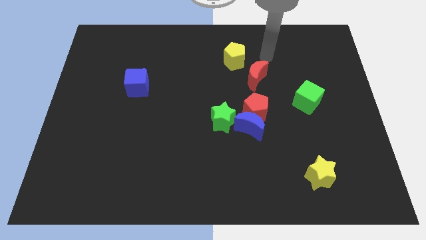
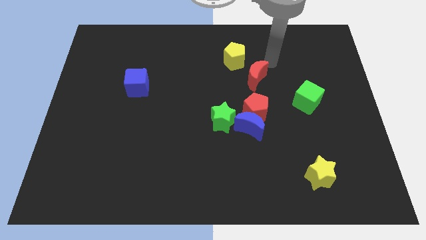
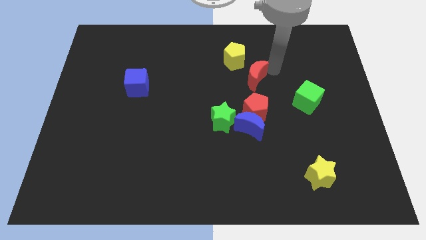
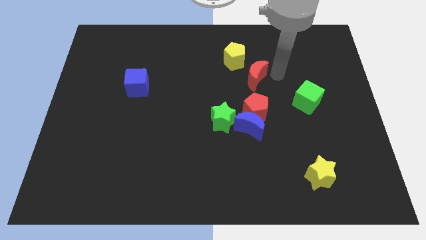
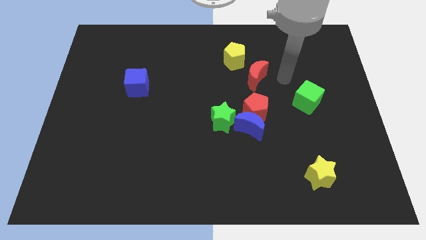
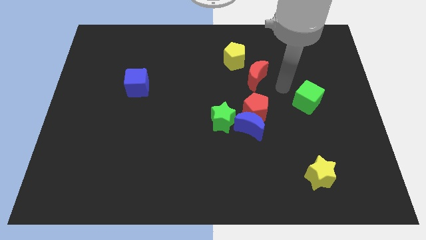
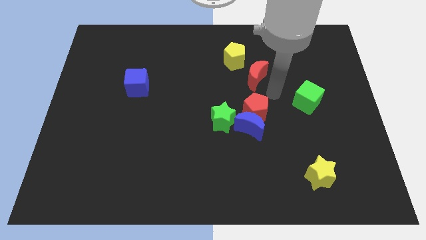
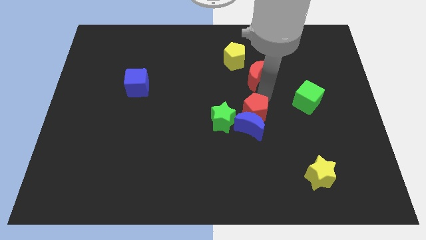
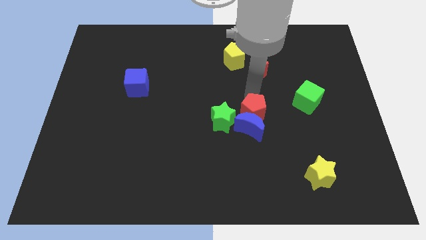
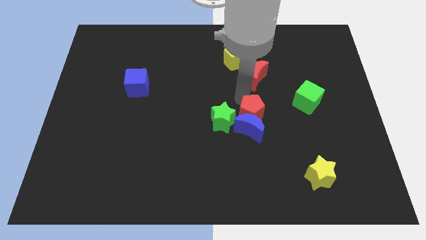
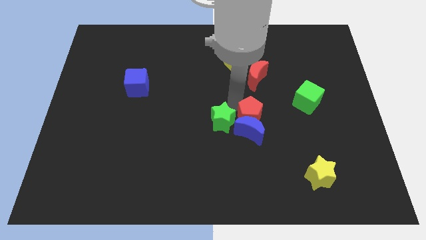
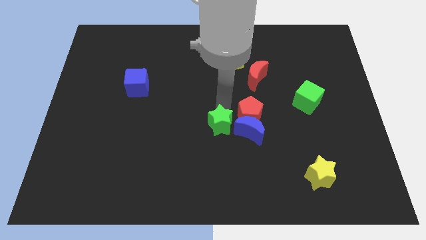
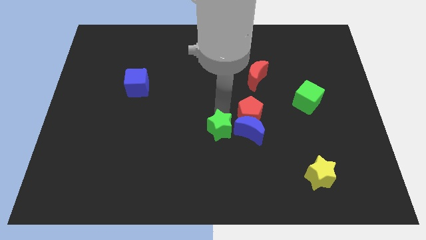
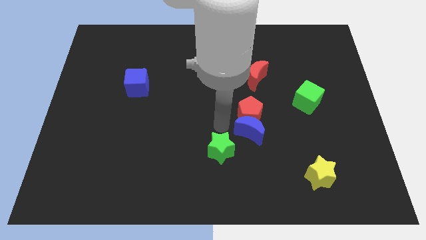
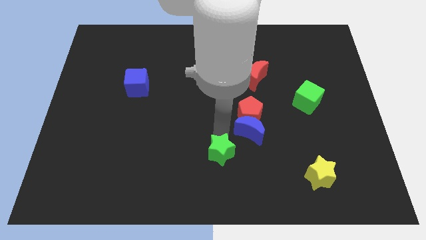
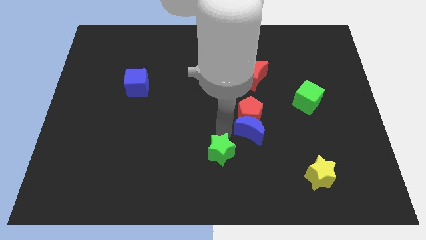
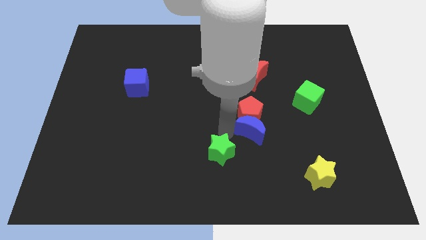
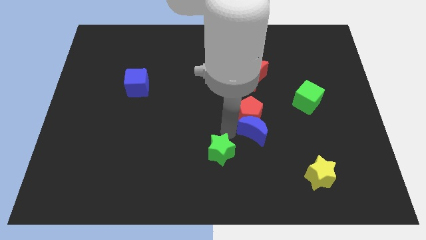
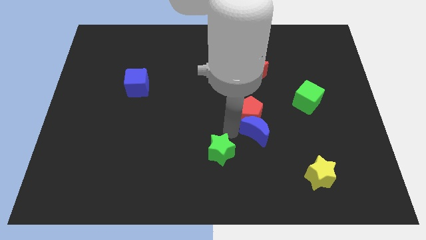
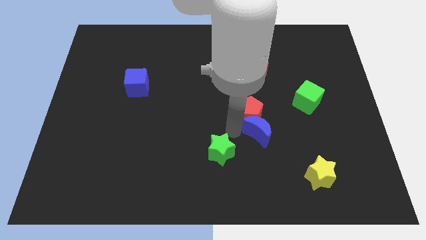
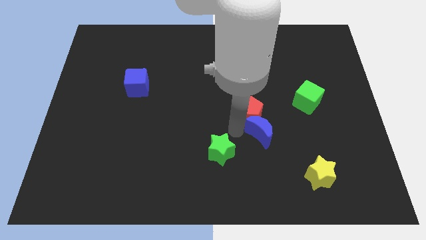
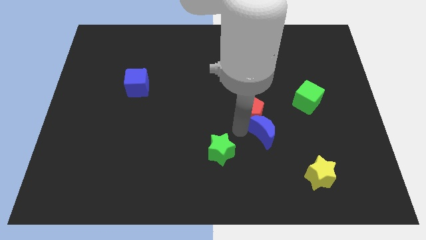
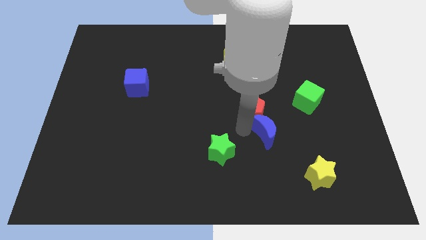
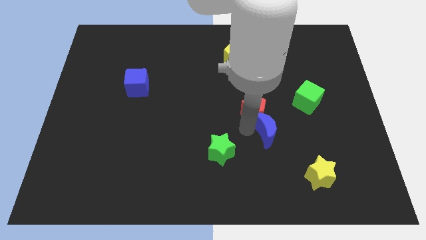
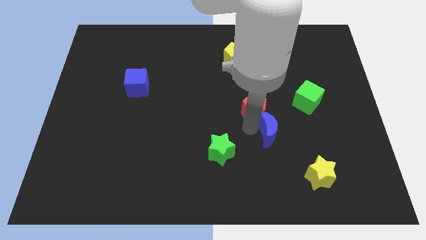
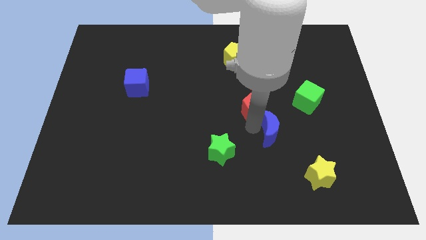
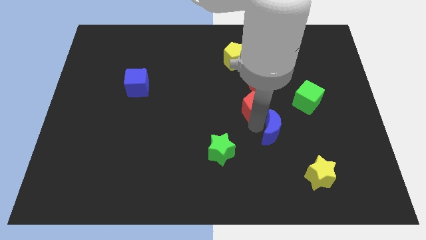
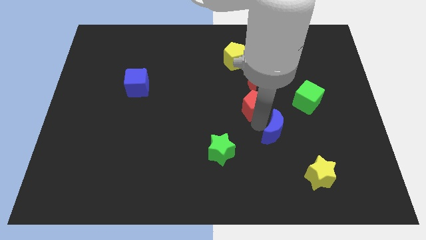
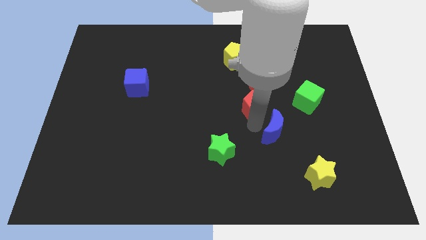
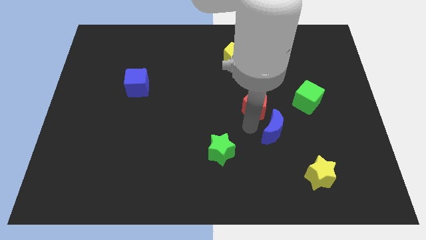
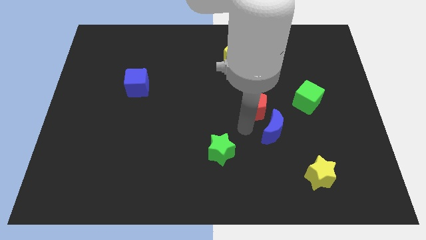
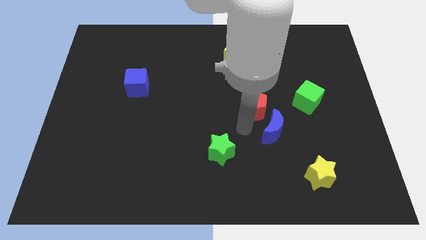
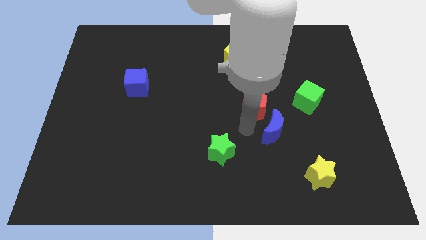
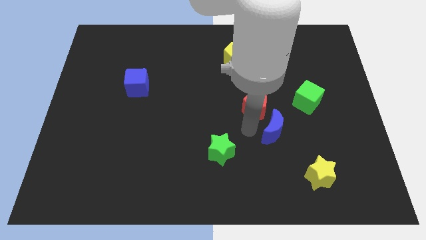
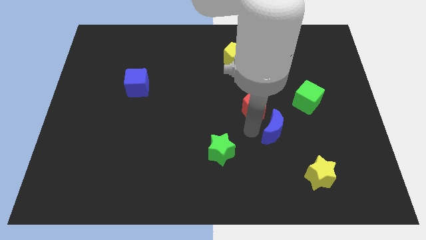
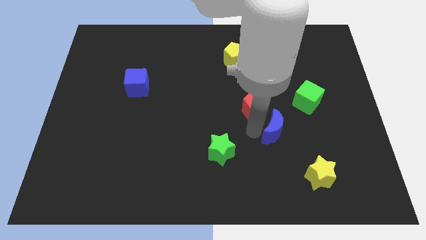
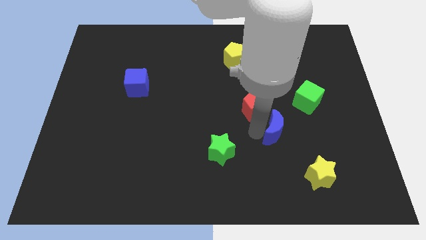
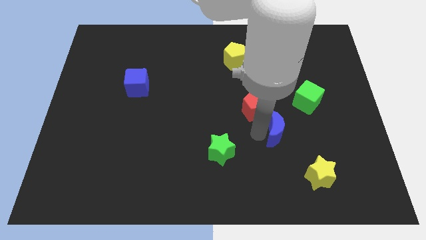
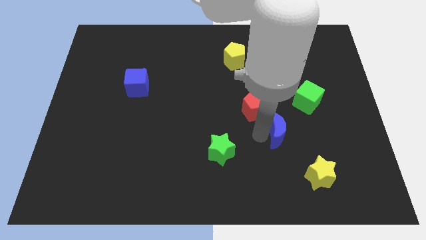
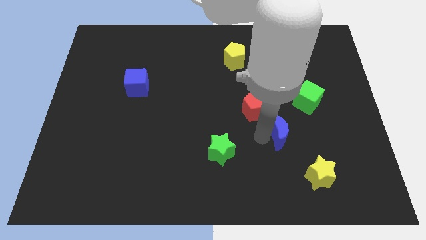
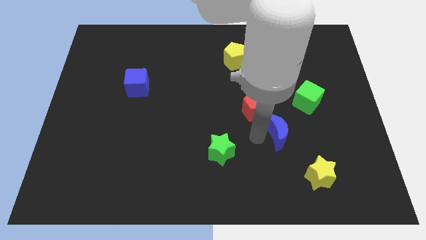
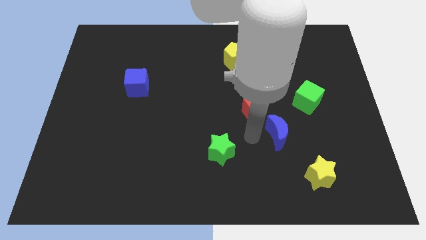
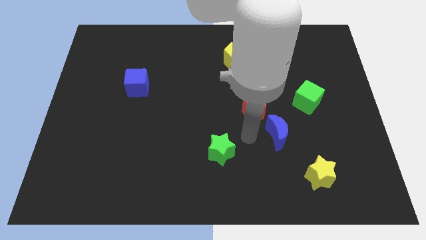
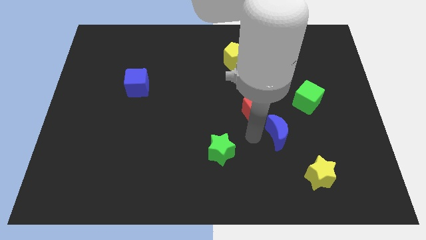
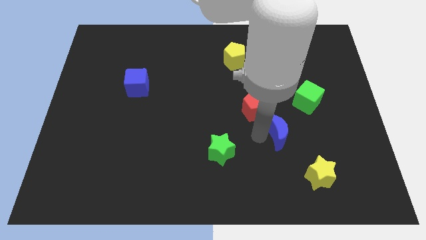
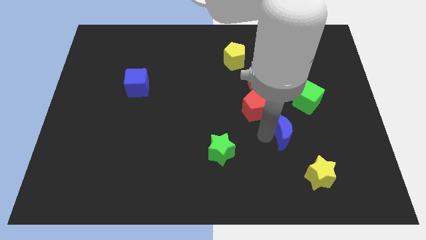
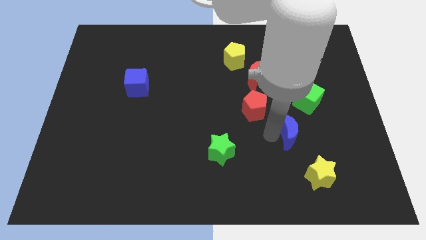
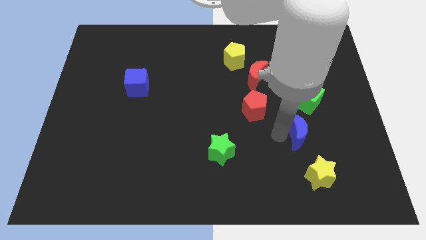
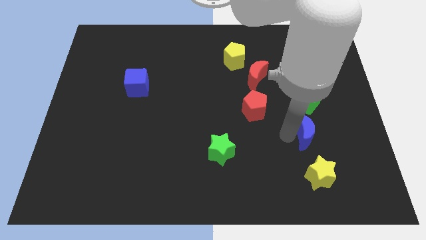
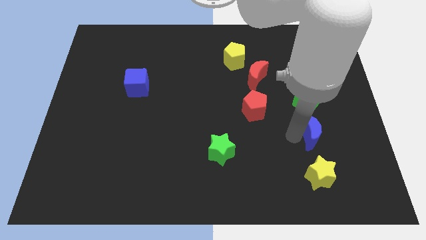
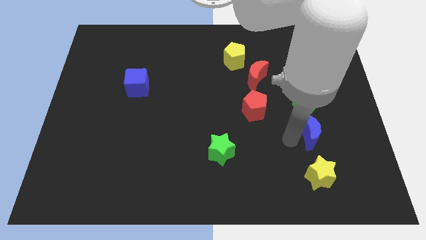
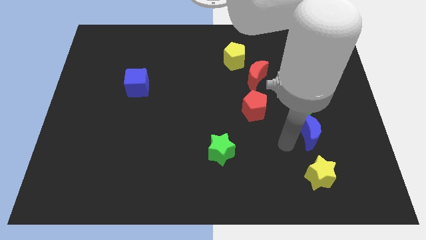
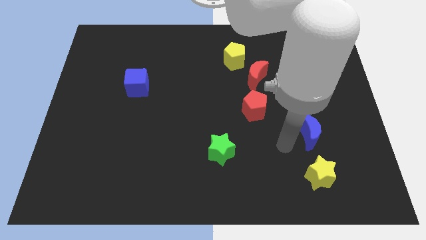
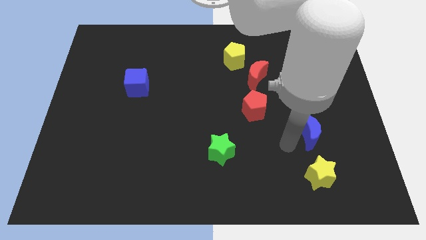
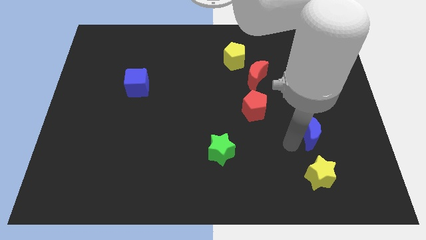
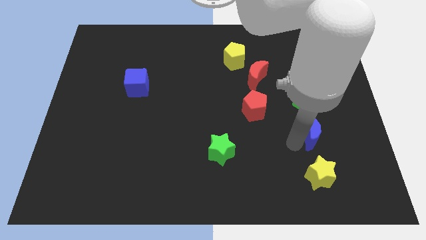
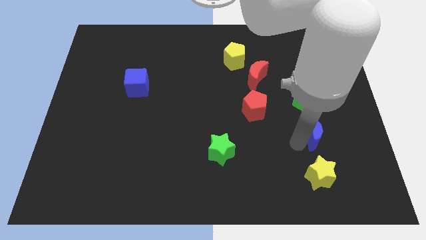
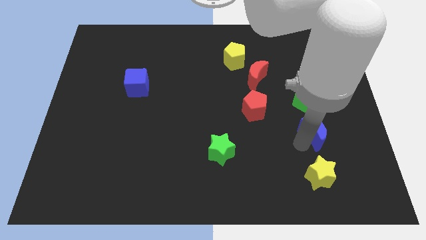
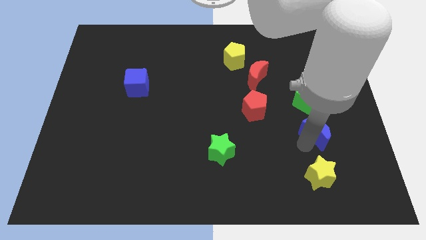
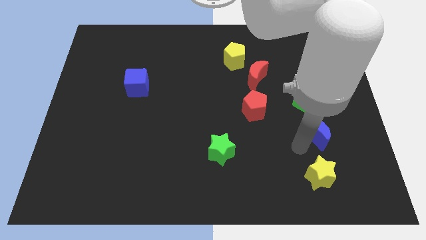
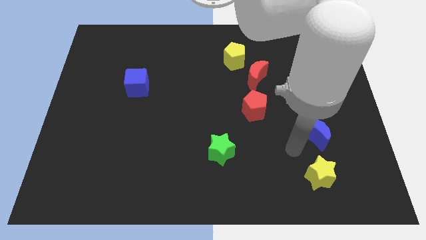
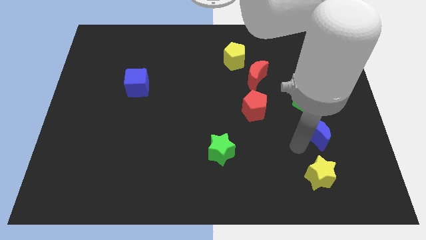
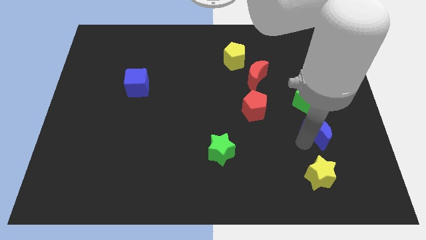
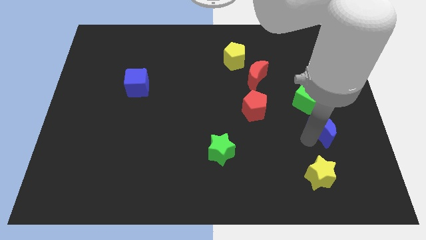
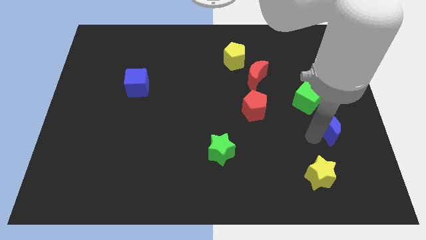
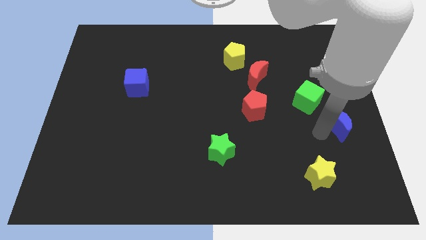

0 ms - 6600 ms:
put the blue moon to the right side of the board

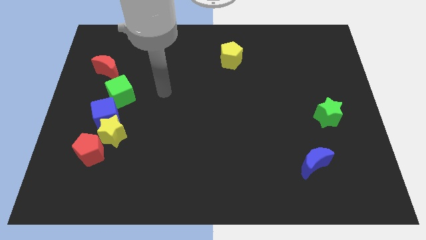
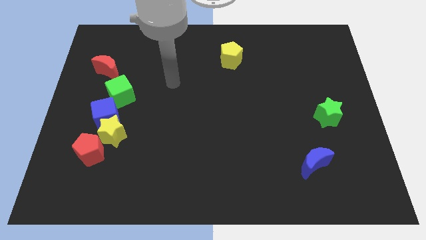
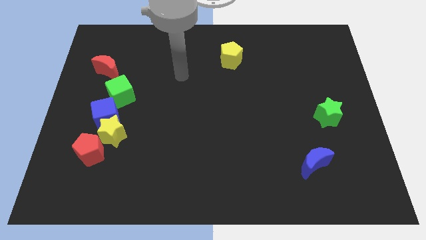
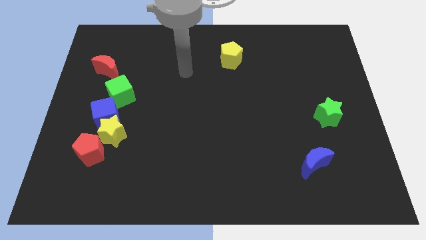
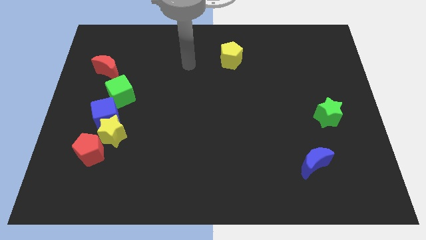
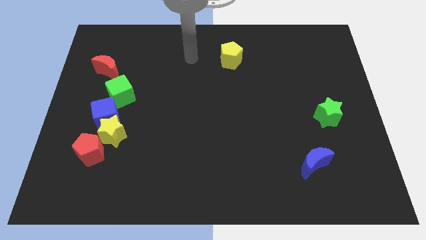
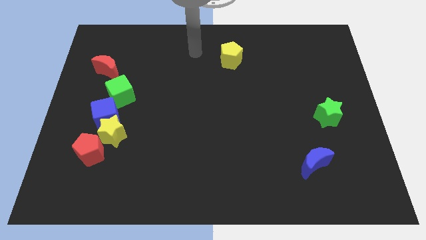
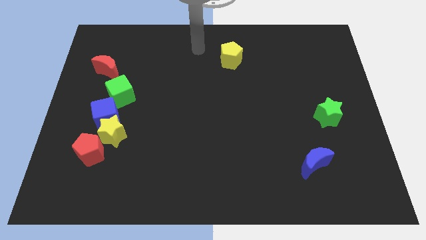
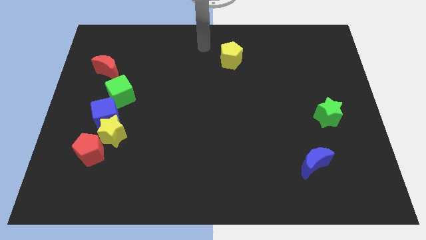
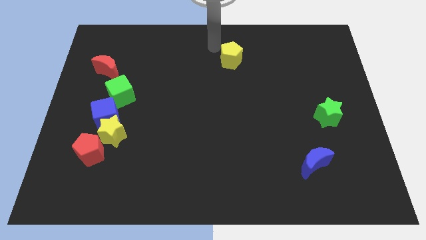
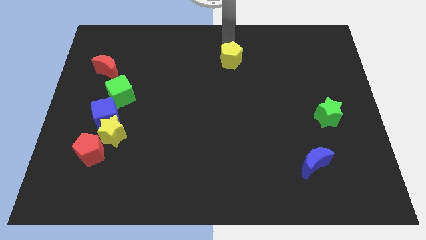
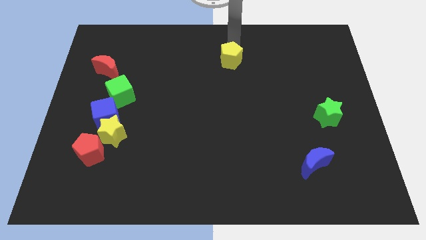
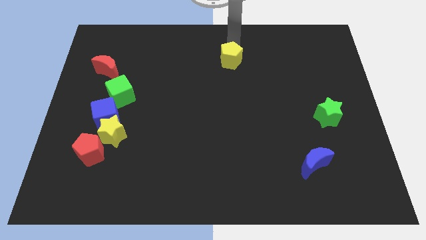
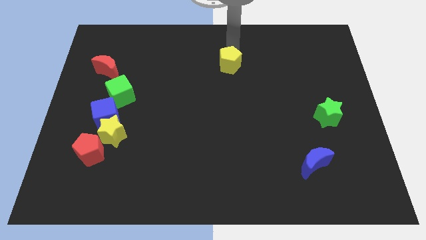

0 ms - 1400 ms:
slide the yellow pentagon to the middle
